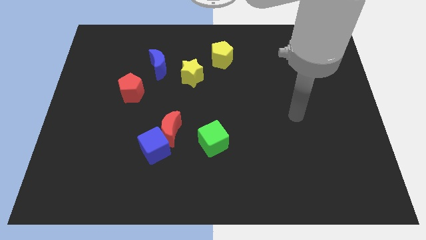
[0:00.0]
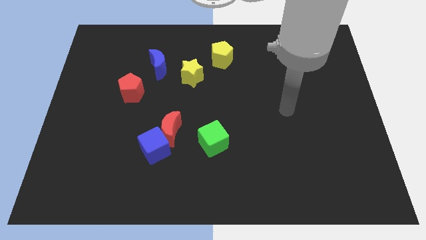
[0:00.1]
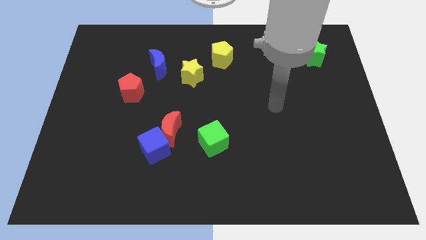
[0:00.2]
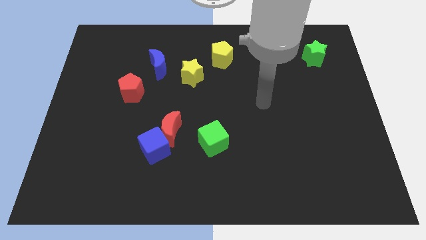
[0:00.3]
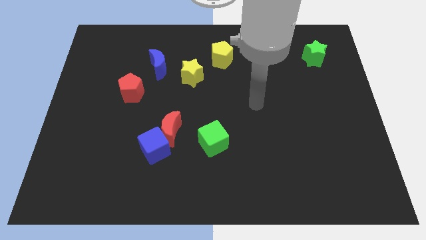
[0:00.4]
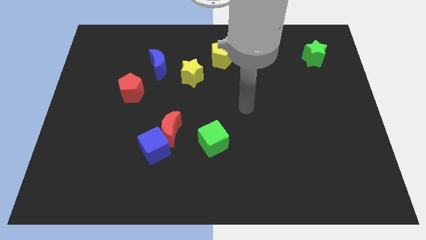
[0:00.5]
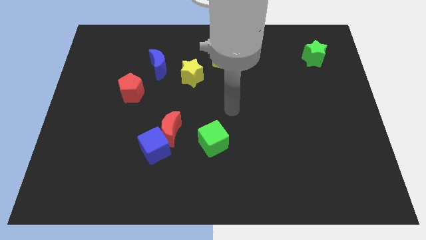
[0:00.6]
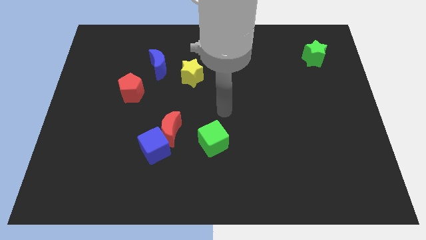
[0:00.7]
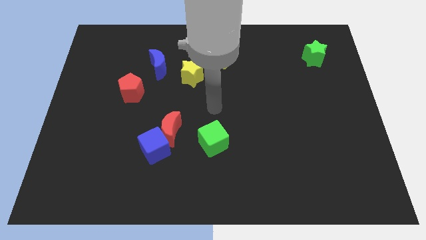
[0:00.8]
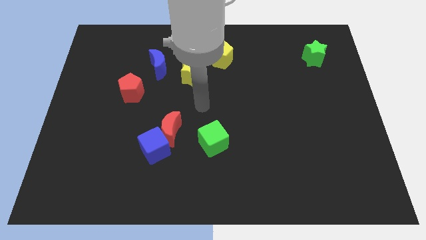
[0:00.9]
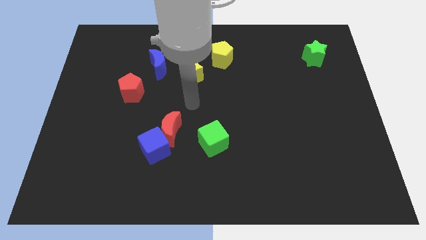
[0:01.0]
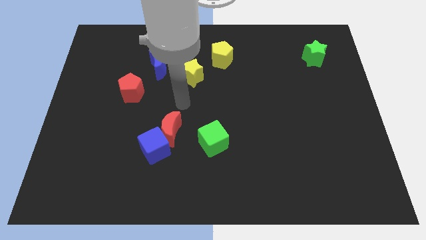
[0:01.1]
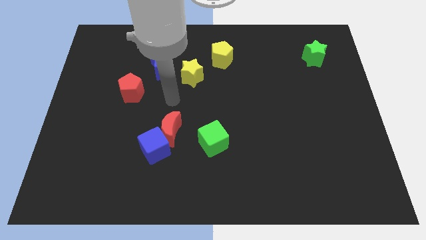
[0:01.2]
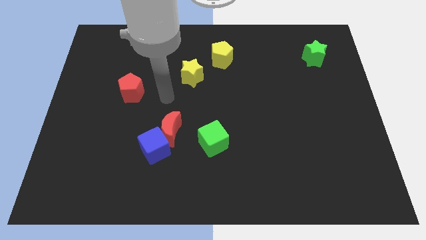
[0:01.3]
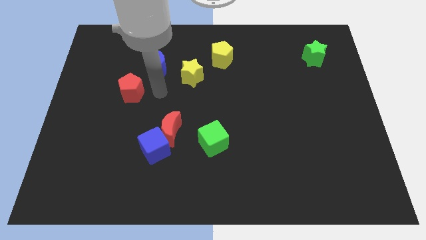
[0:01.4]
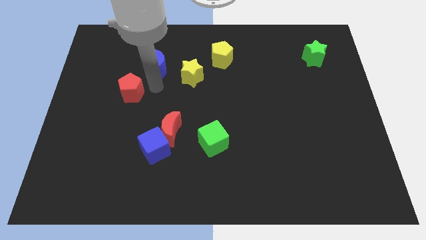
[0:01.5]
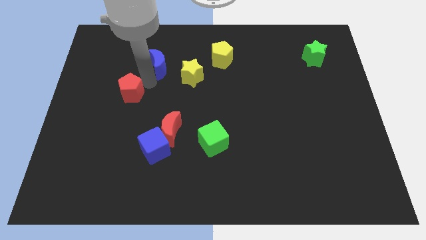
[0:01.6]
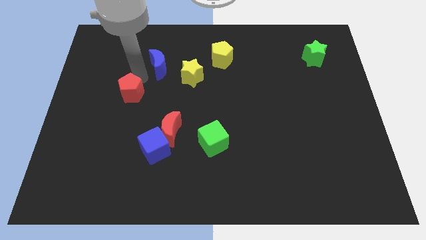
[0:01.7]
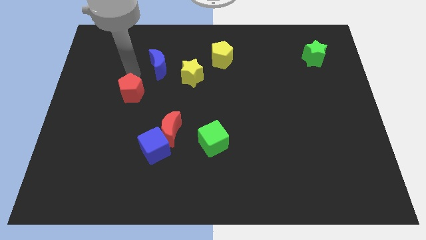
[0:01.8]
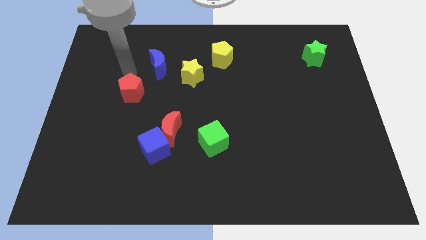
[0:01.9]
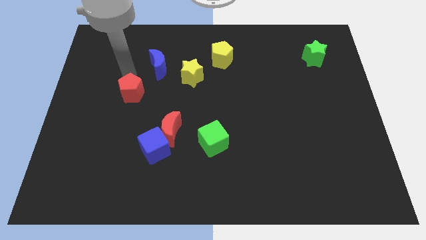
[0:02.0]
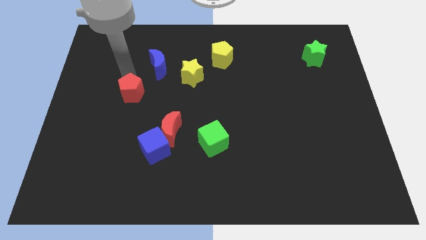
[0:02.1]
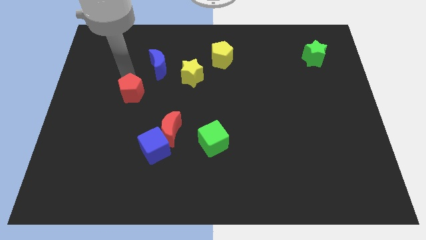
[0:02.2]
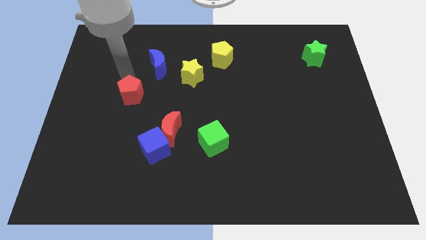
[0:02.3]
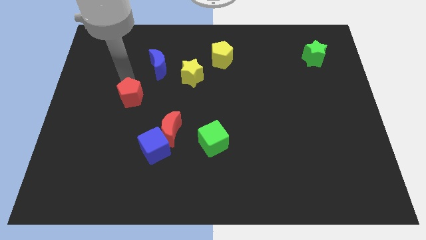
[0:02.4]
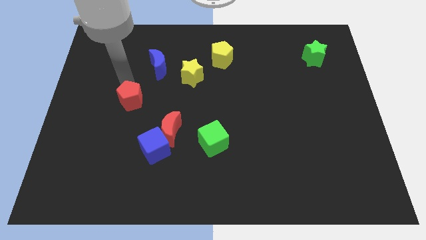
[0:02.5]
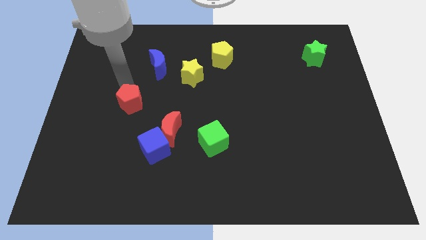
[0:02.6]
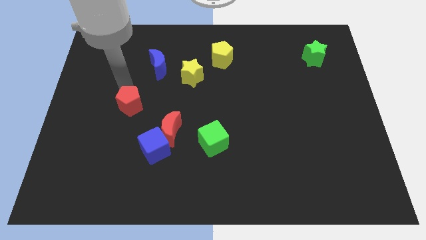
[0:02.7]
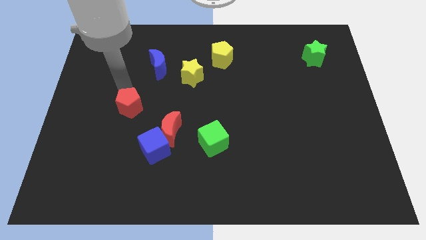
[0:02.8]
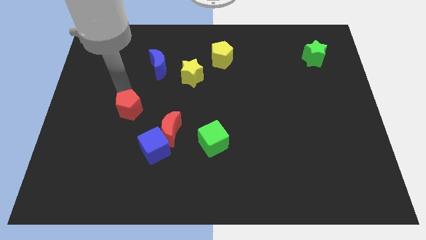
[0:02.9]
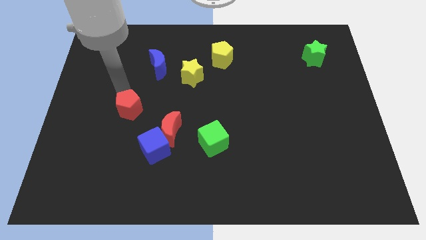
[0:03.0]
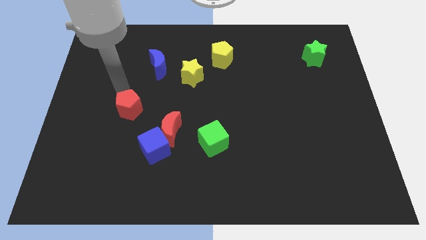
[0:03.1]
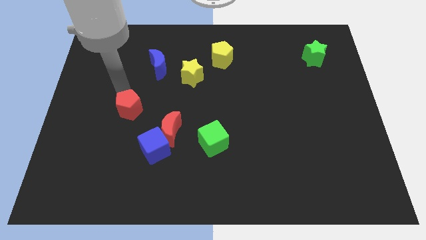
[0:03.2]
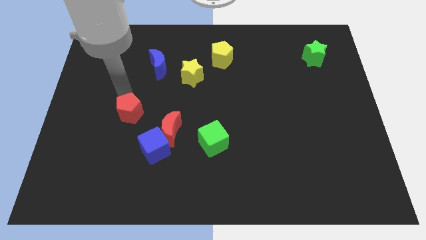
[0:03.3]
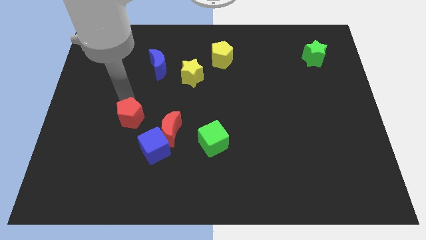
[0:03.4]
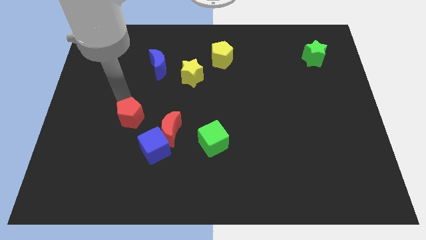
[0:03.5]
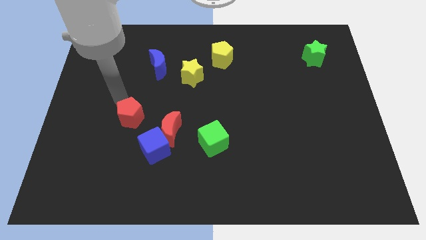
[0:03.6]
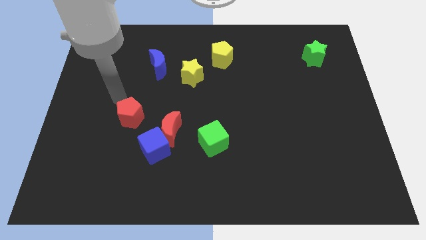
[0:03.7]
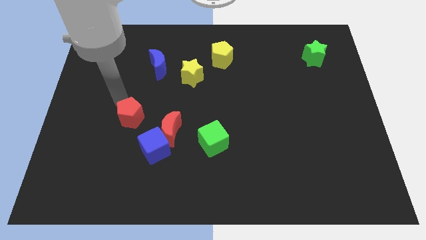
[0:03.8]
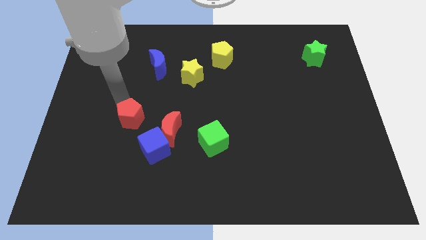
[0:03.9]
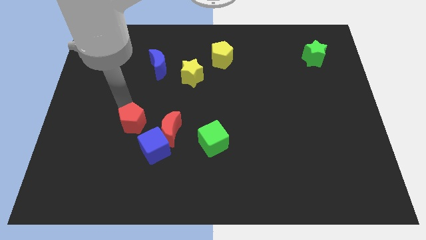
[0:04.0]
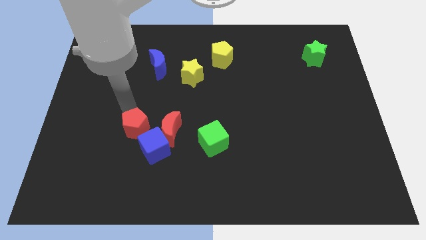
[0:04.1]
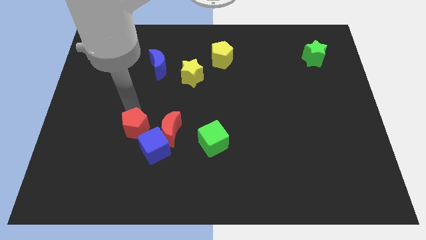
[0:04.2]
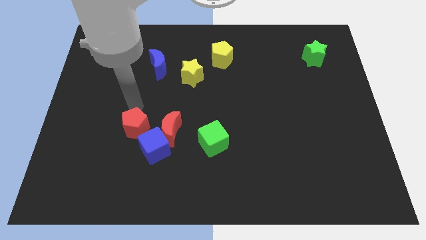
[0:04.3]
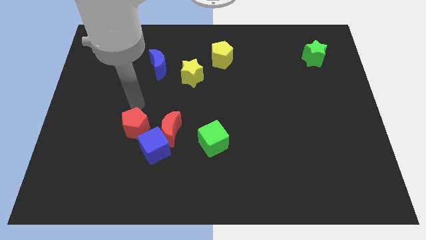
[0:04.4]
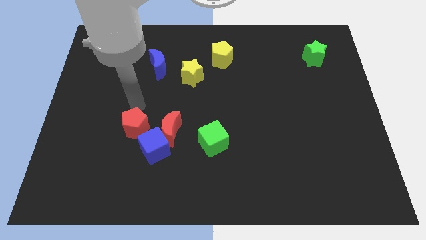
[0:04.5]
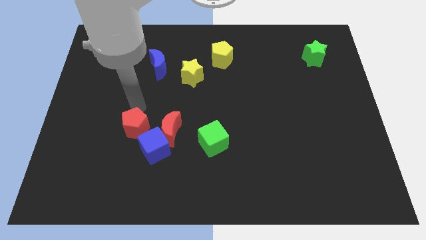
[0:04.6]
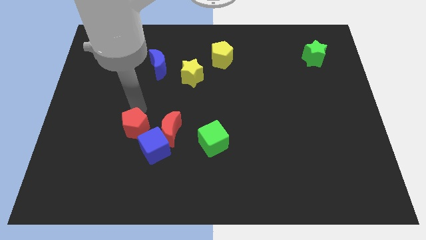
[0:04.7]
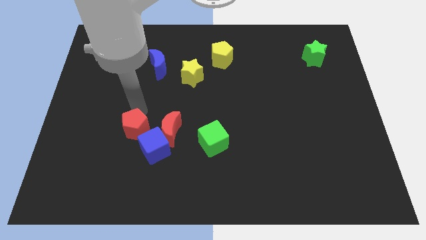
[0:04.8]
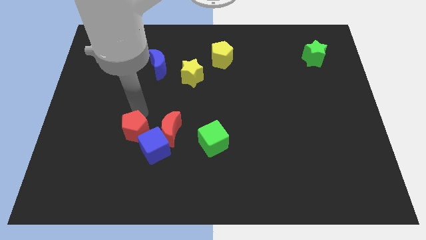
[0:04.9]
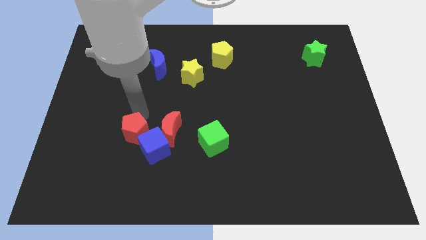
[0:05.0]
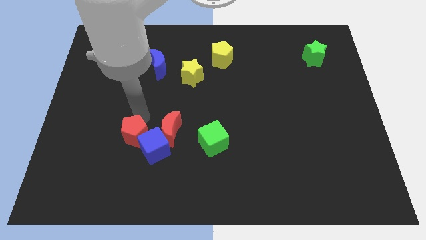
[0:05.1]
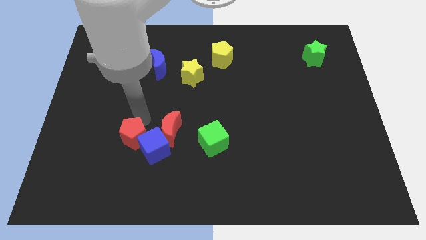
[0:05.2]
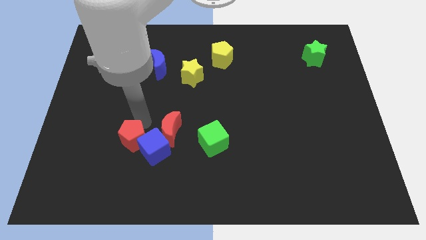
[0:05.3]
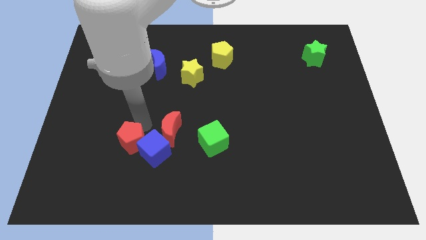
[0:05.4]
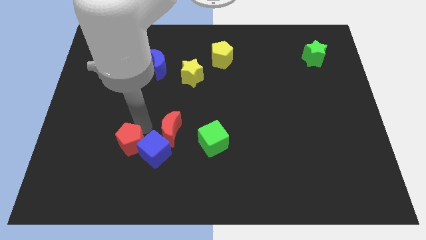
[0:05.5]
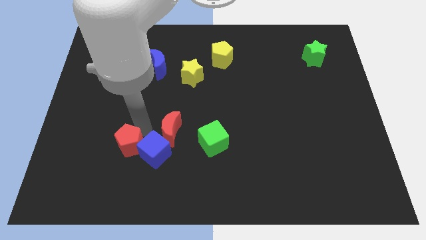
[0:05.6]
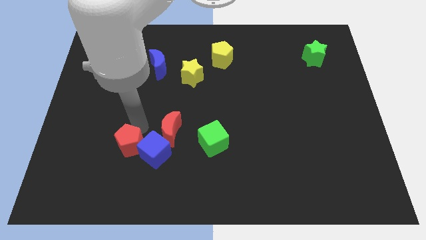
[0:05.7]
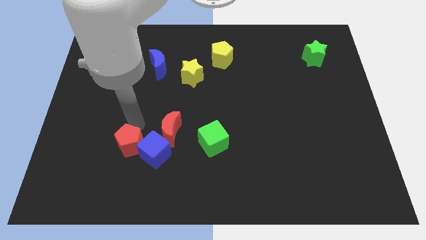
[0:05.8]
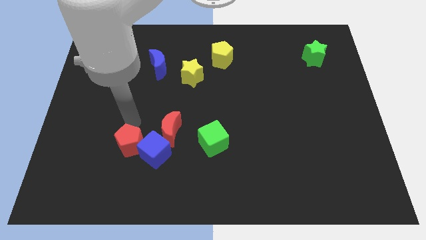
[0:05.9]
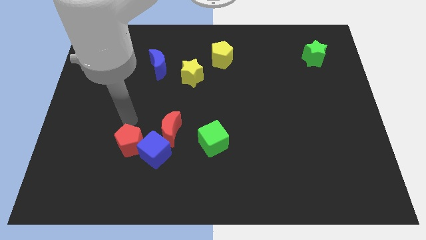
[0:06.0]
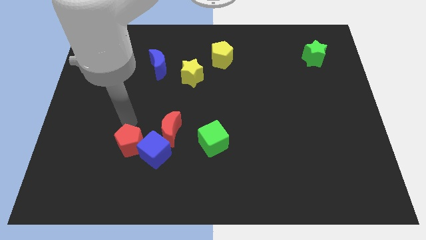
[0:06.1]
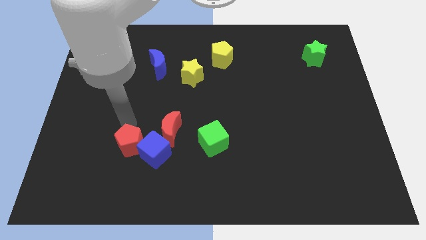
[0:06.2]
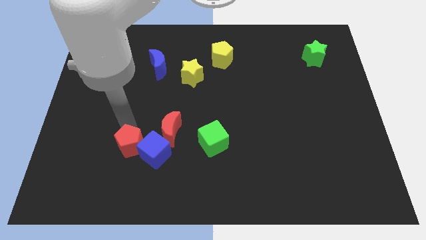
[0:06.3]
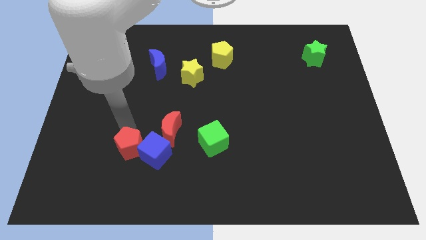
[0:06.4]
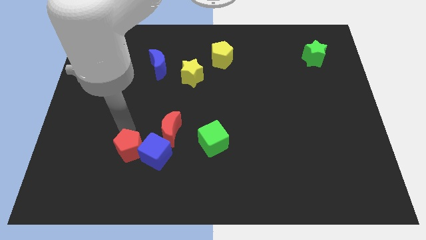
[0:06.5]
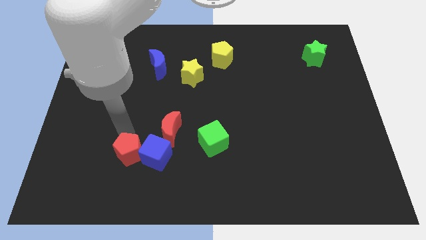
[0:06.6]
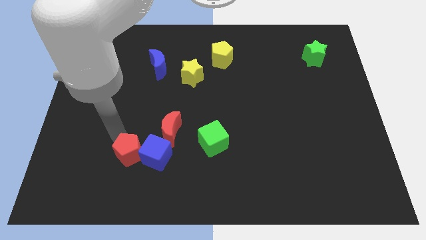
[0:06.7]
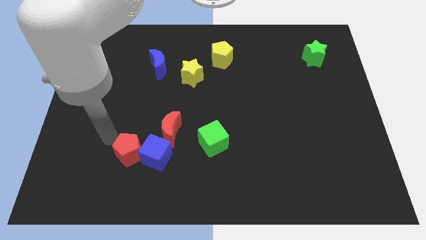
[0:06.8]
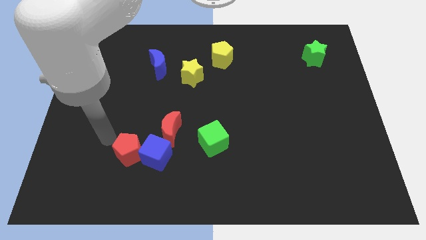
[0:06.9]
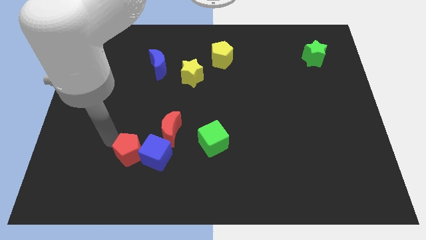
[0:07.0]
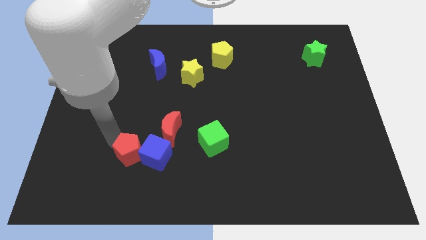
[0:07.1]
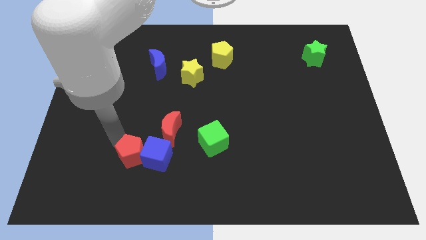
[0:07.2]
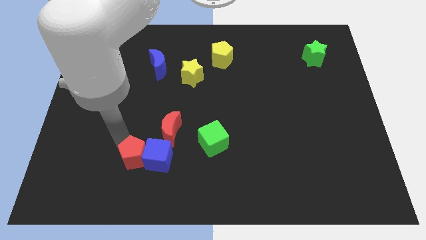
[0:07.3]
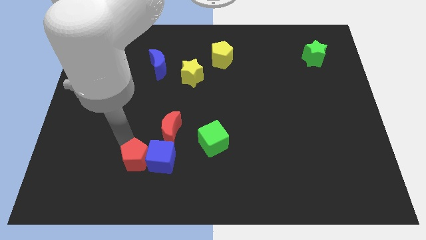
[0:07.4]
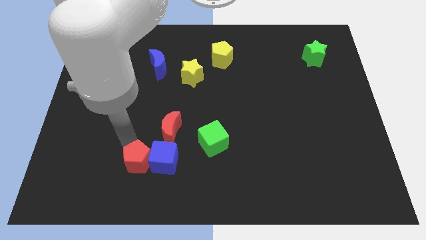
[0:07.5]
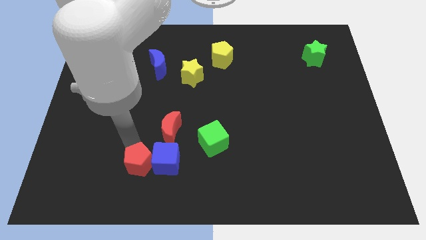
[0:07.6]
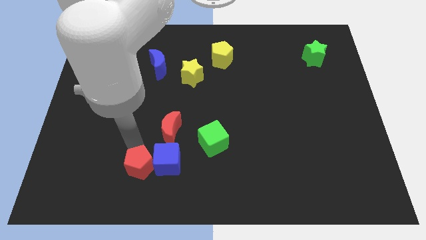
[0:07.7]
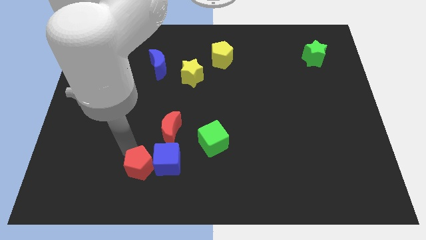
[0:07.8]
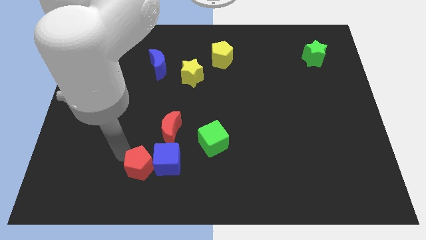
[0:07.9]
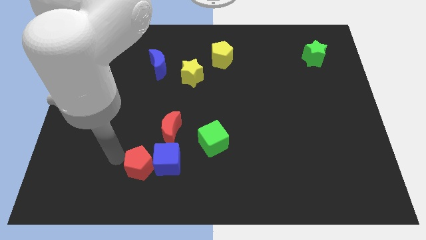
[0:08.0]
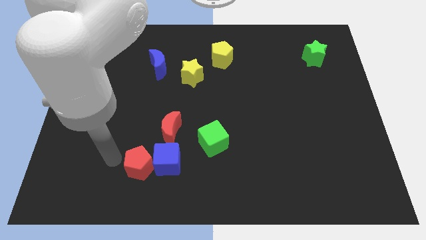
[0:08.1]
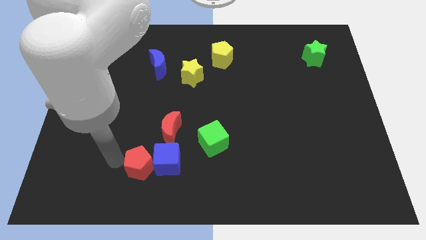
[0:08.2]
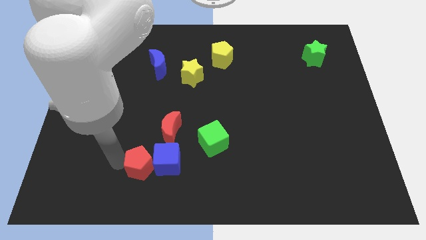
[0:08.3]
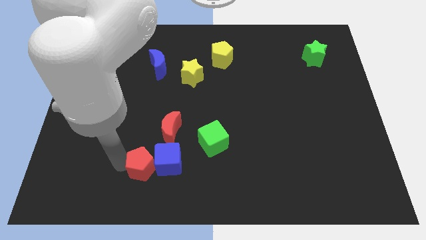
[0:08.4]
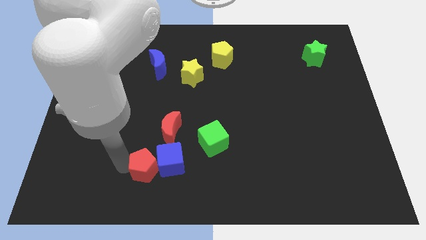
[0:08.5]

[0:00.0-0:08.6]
move the red pentagon to the bottom of the red moon
